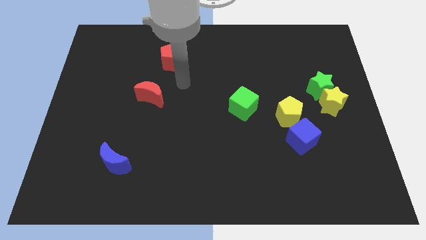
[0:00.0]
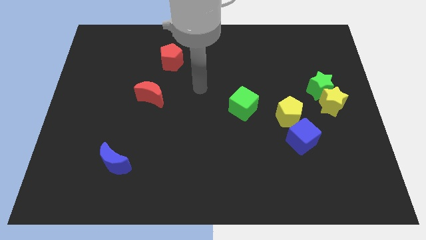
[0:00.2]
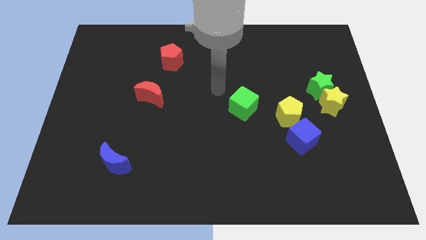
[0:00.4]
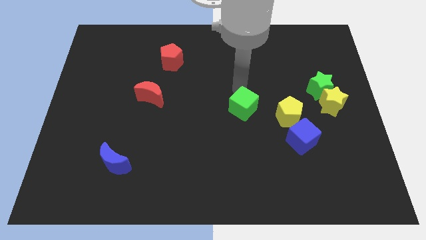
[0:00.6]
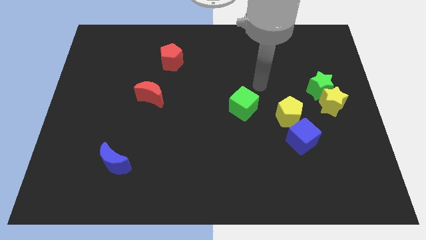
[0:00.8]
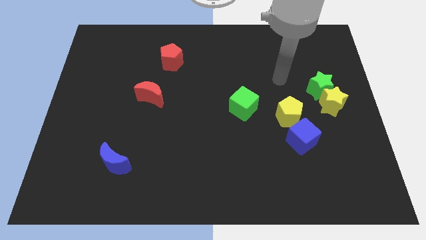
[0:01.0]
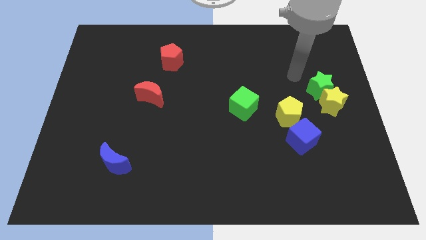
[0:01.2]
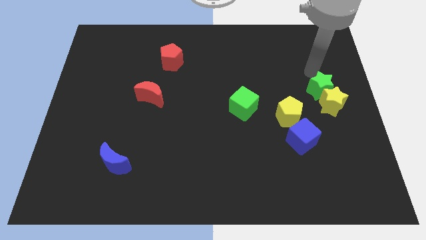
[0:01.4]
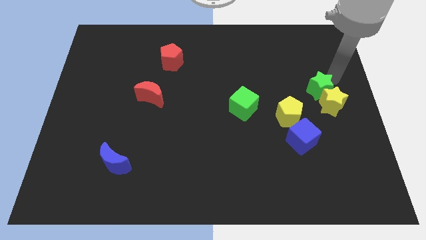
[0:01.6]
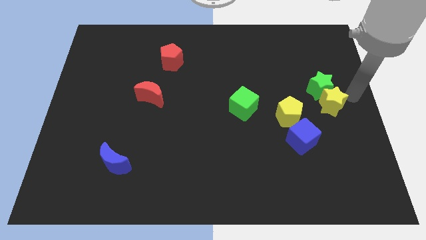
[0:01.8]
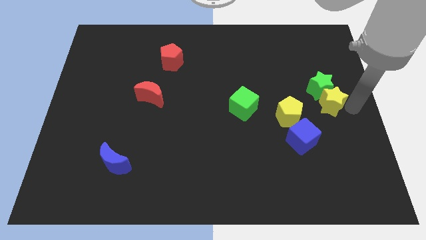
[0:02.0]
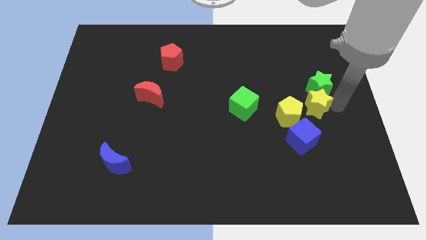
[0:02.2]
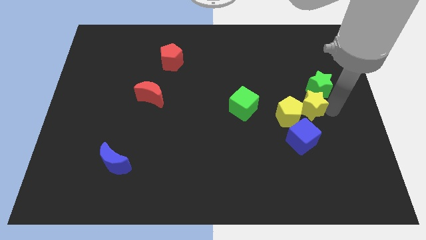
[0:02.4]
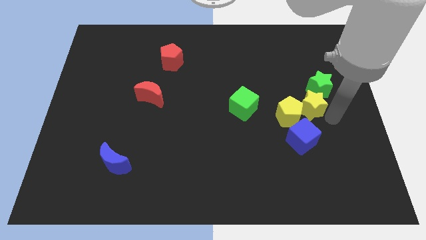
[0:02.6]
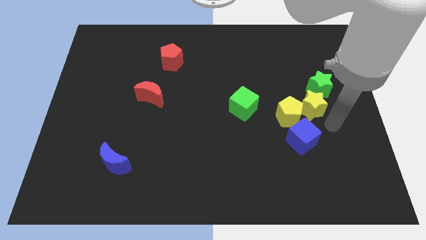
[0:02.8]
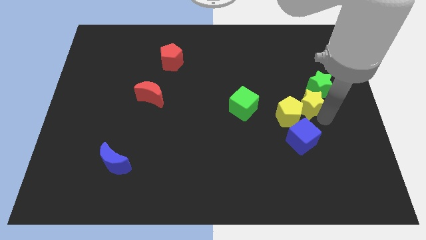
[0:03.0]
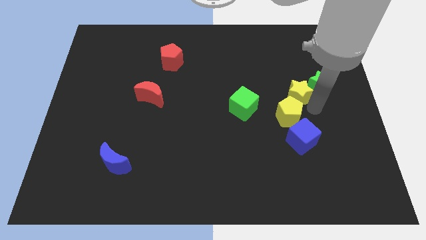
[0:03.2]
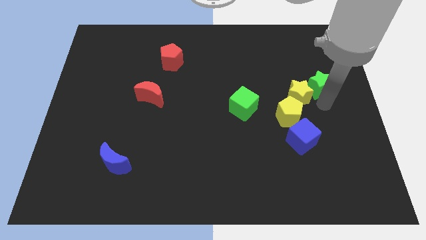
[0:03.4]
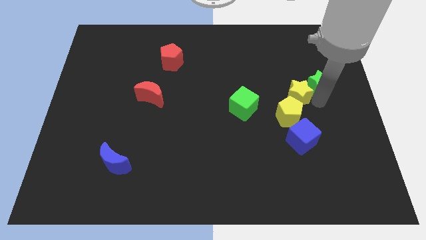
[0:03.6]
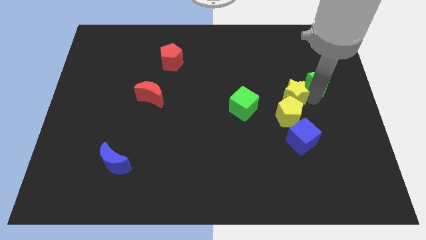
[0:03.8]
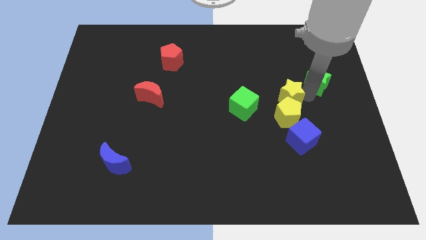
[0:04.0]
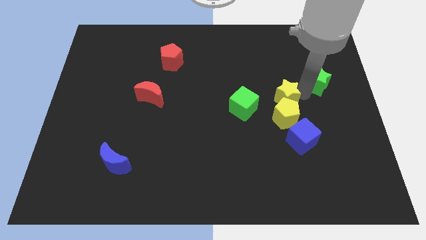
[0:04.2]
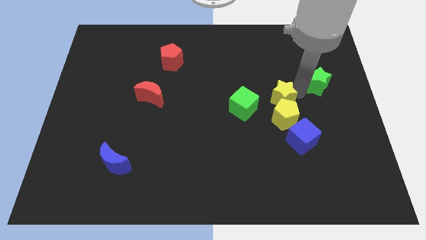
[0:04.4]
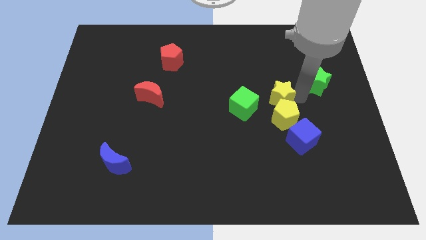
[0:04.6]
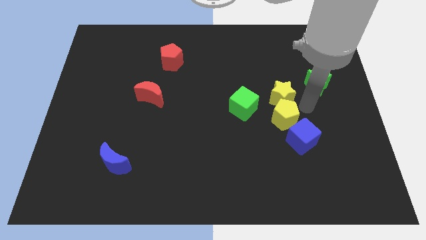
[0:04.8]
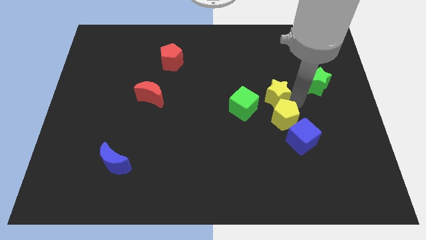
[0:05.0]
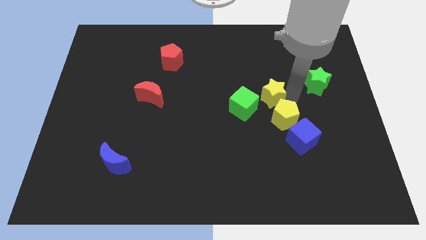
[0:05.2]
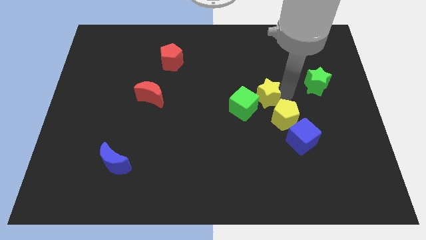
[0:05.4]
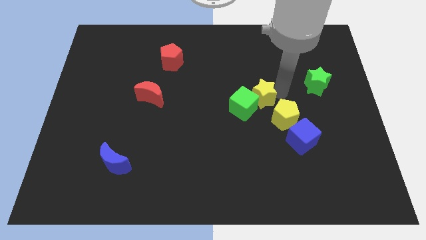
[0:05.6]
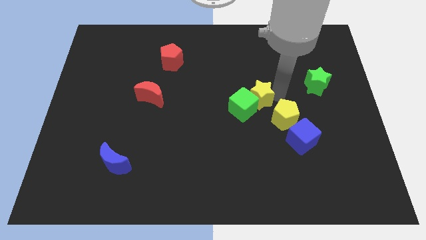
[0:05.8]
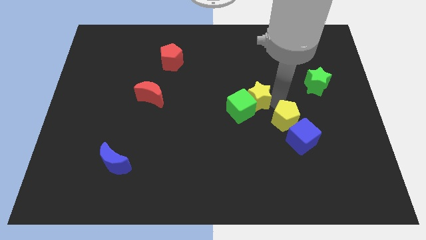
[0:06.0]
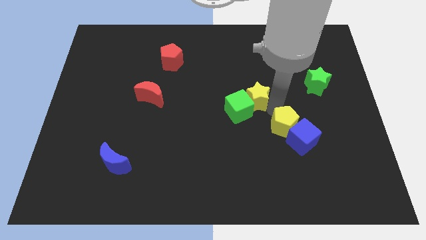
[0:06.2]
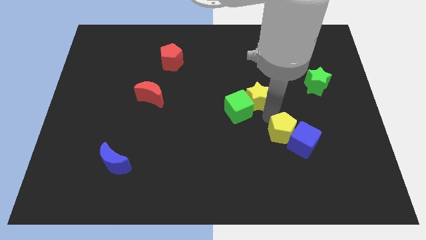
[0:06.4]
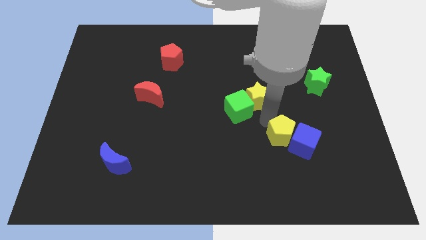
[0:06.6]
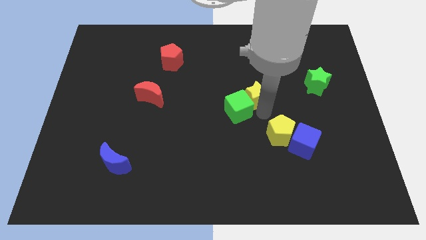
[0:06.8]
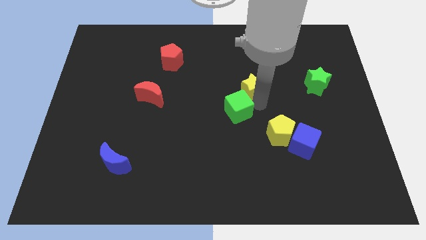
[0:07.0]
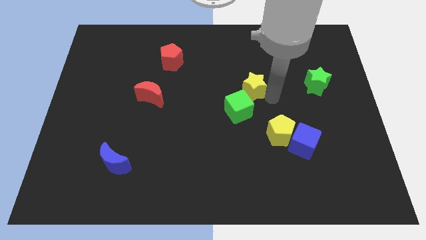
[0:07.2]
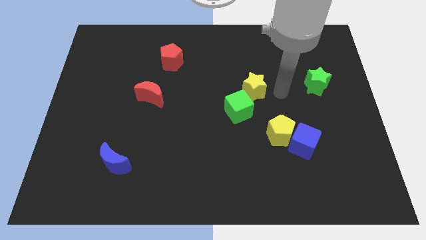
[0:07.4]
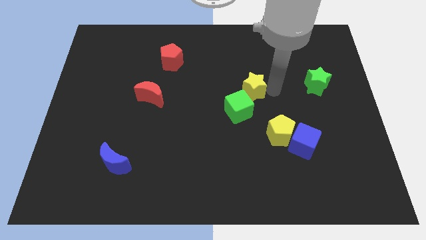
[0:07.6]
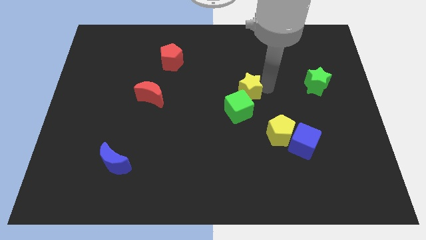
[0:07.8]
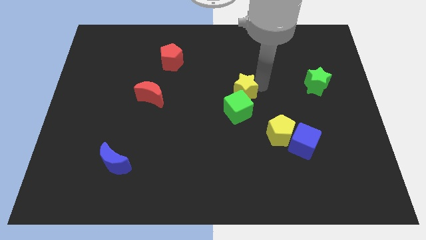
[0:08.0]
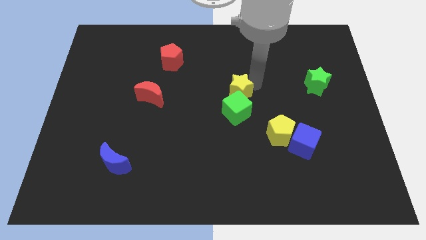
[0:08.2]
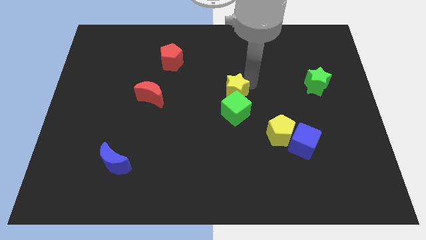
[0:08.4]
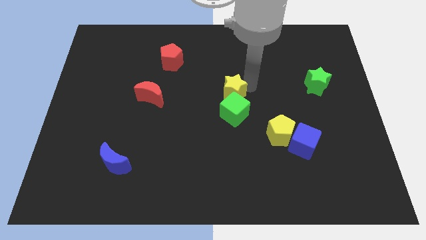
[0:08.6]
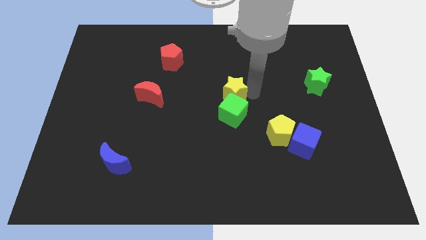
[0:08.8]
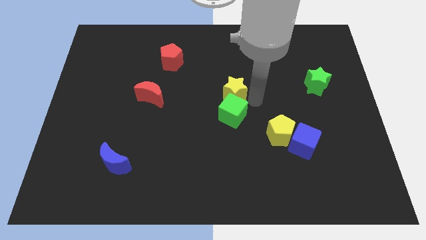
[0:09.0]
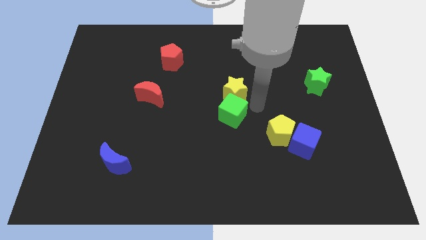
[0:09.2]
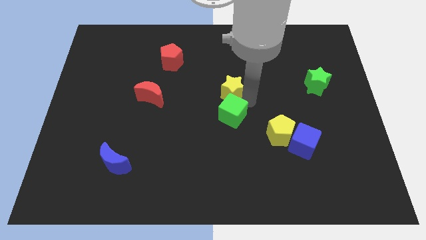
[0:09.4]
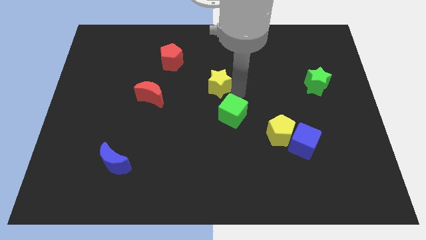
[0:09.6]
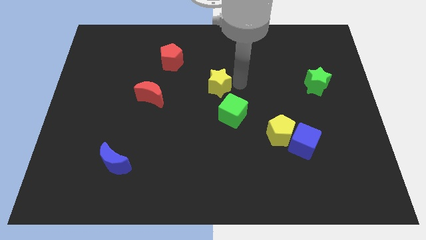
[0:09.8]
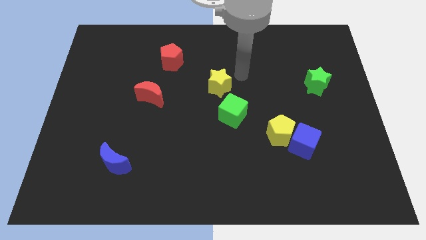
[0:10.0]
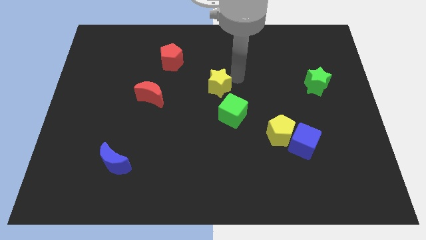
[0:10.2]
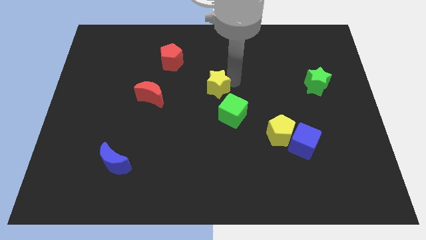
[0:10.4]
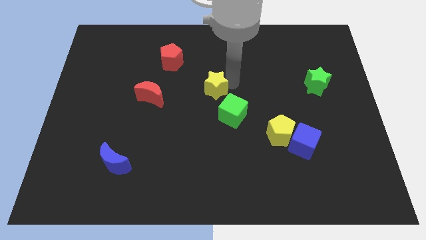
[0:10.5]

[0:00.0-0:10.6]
slide the yellow star to the right side of the red moon

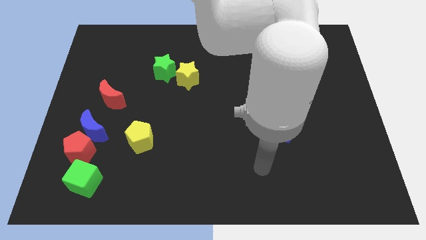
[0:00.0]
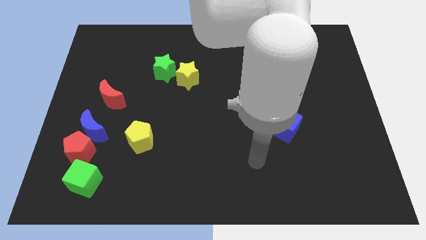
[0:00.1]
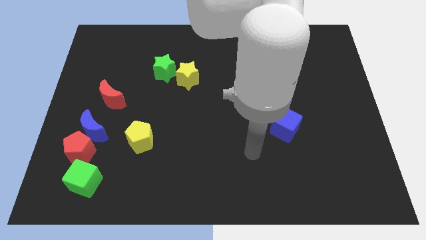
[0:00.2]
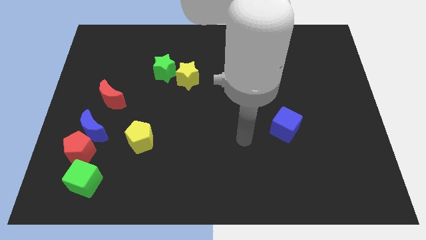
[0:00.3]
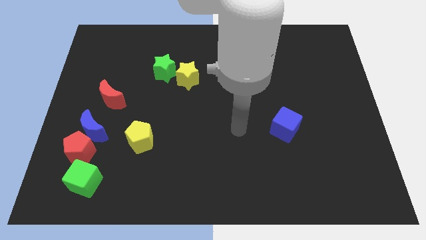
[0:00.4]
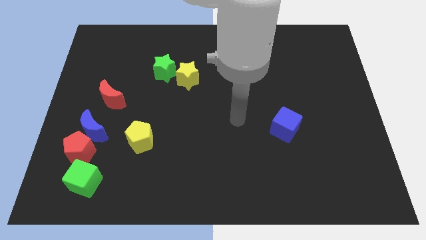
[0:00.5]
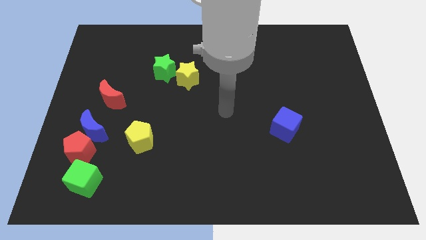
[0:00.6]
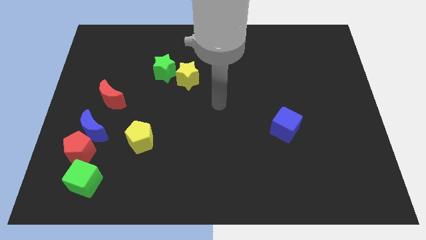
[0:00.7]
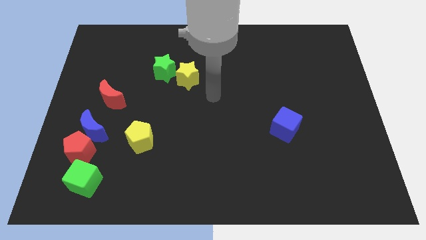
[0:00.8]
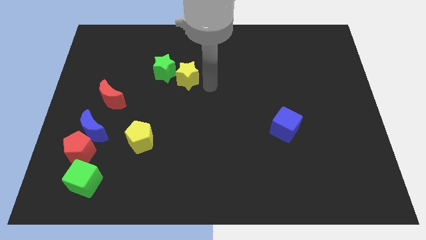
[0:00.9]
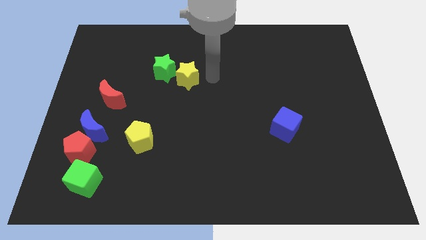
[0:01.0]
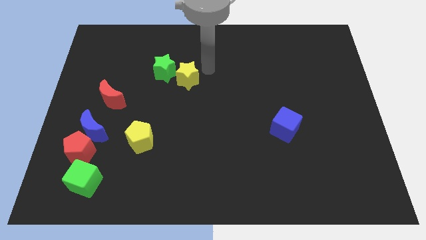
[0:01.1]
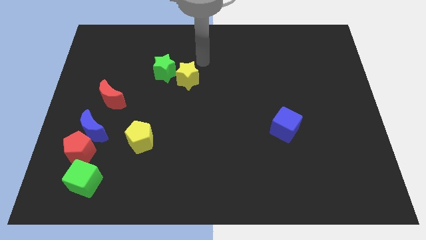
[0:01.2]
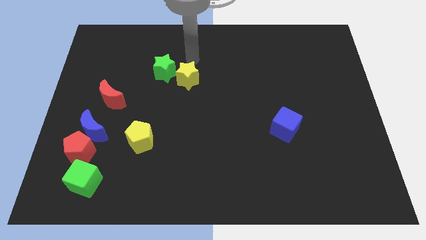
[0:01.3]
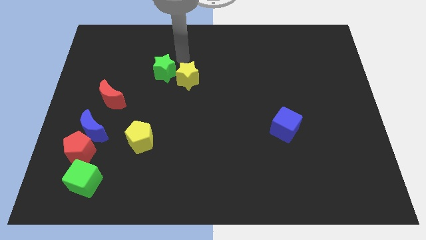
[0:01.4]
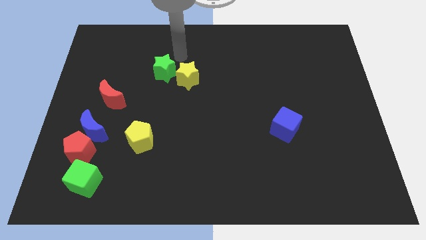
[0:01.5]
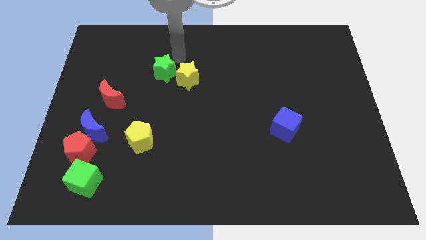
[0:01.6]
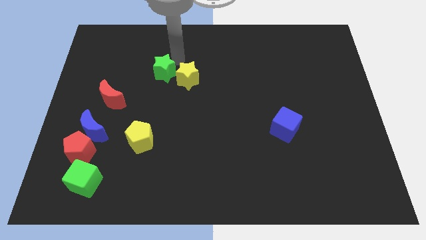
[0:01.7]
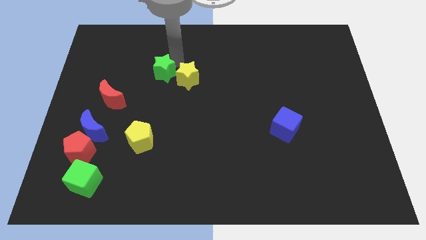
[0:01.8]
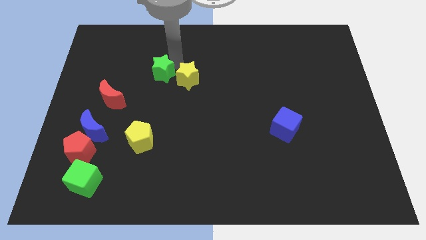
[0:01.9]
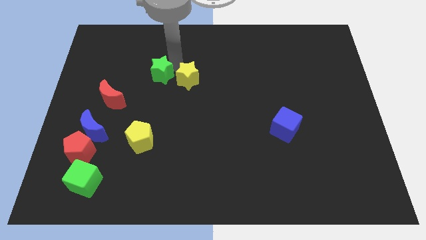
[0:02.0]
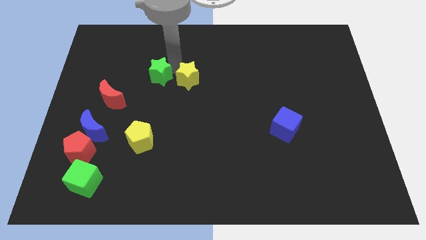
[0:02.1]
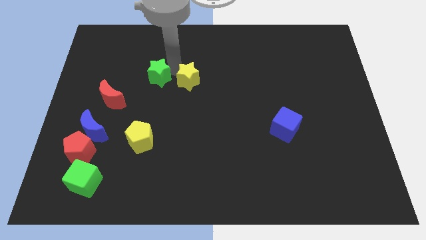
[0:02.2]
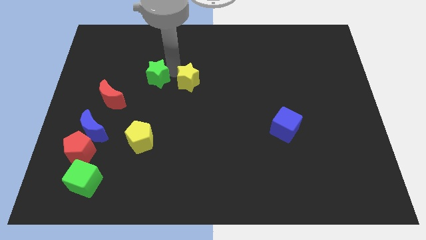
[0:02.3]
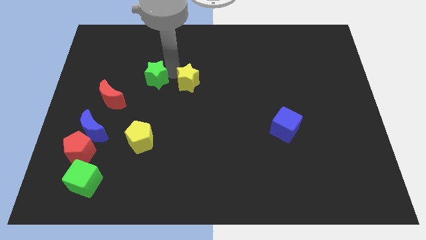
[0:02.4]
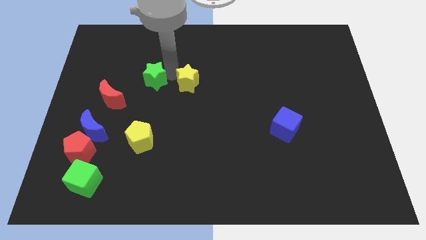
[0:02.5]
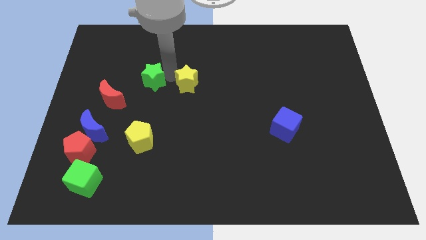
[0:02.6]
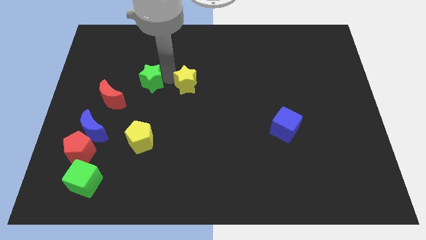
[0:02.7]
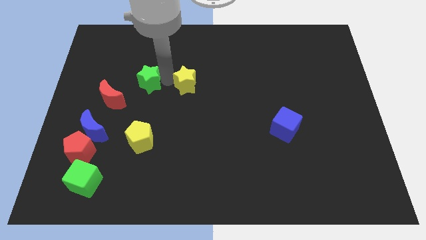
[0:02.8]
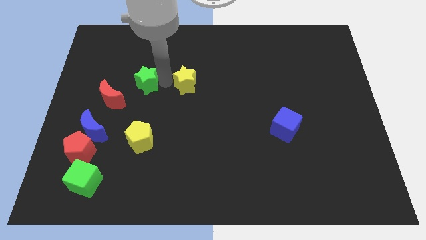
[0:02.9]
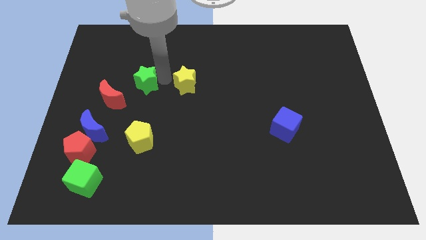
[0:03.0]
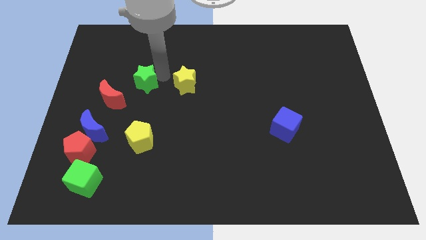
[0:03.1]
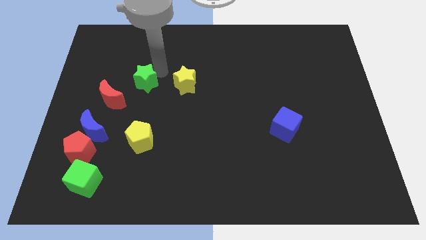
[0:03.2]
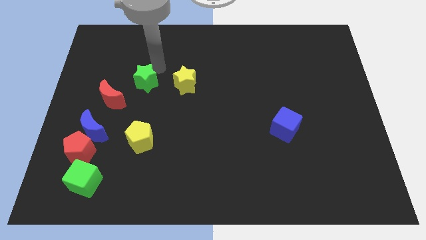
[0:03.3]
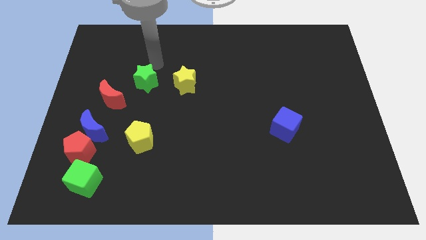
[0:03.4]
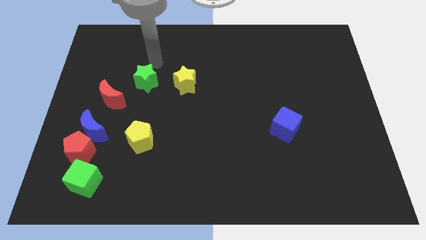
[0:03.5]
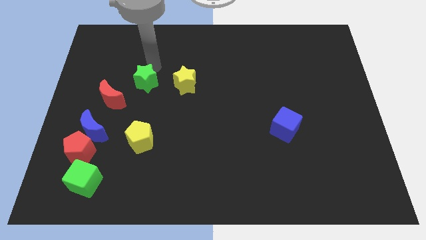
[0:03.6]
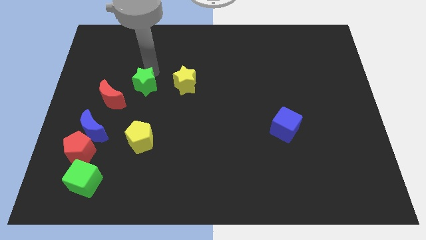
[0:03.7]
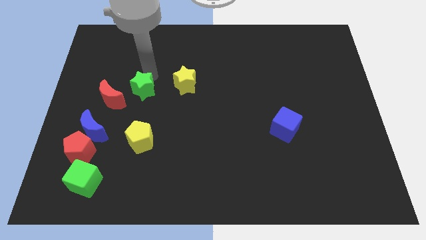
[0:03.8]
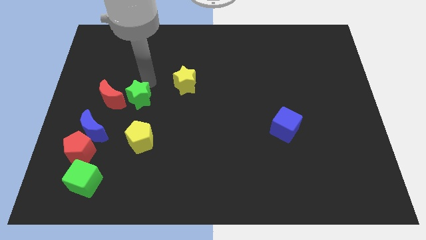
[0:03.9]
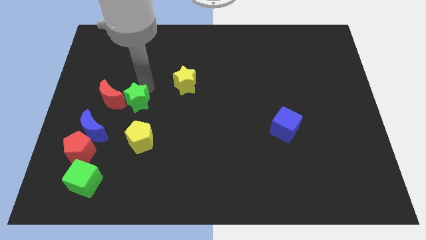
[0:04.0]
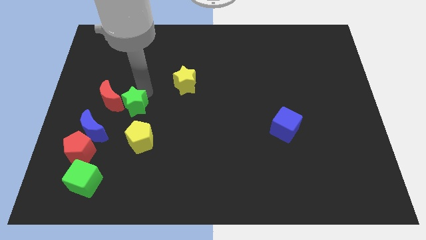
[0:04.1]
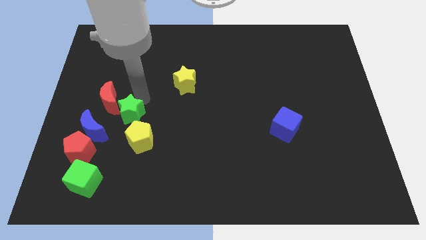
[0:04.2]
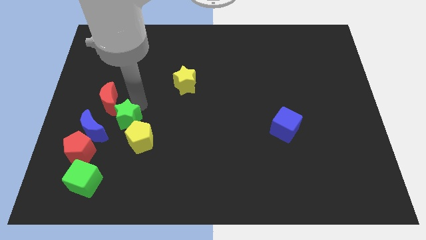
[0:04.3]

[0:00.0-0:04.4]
push the green star to the top right side of the red pentagon
